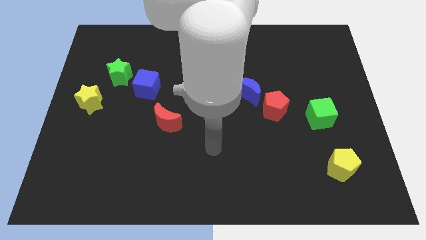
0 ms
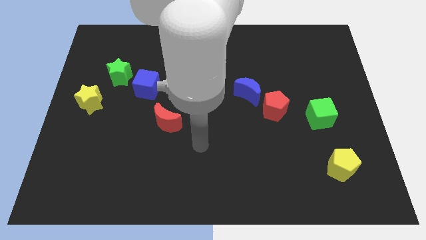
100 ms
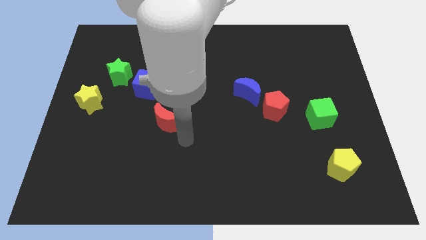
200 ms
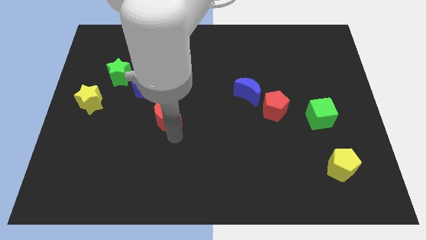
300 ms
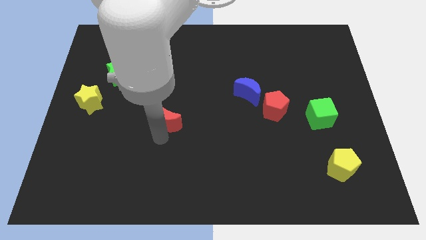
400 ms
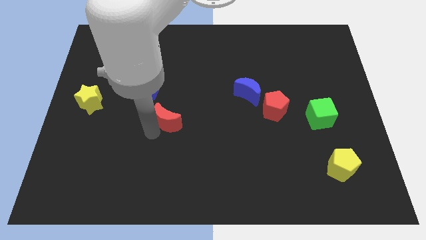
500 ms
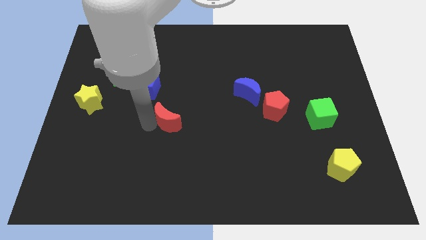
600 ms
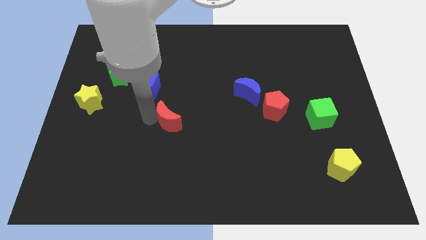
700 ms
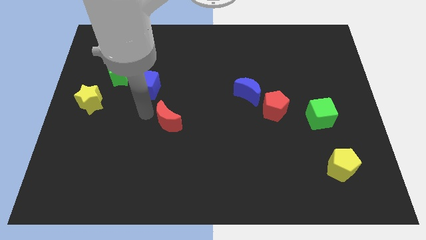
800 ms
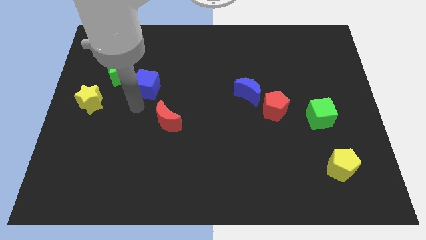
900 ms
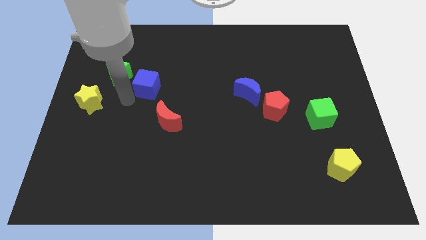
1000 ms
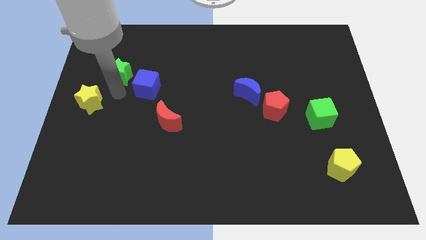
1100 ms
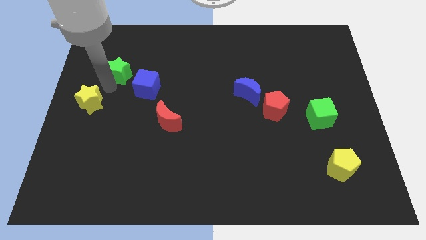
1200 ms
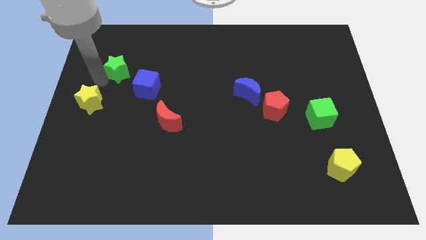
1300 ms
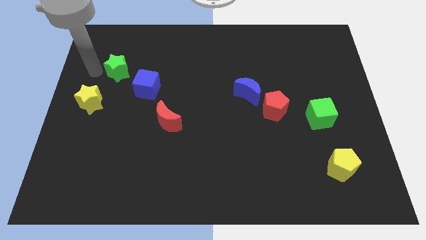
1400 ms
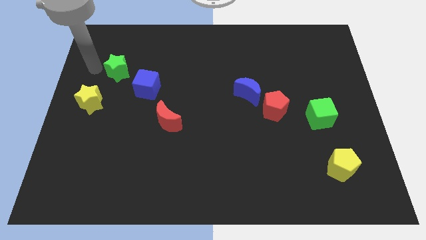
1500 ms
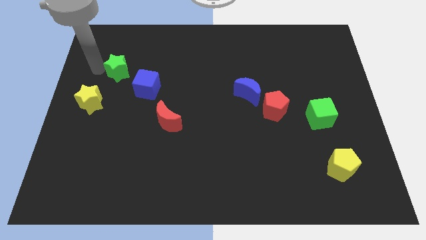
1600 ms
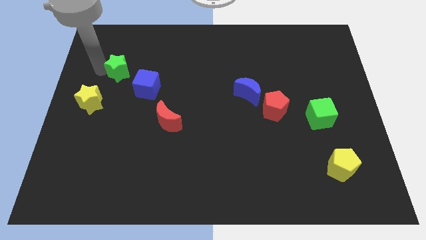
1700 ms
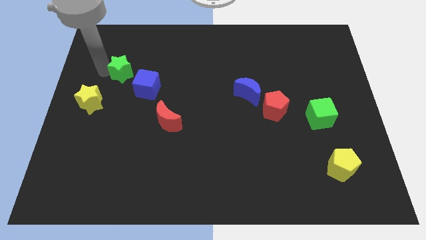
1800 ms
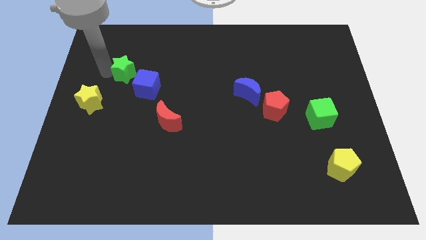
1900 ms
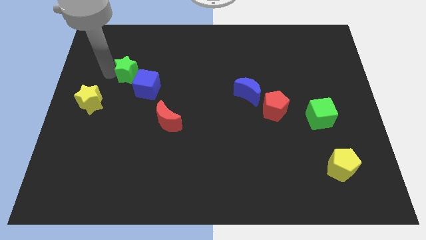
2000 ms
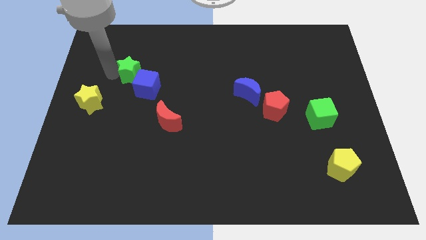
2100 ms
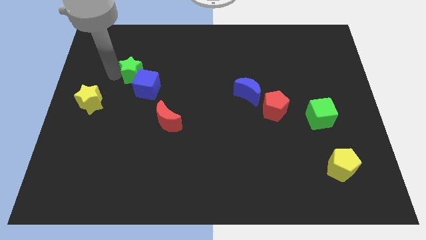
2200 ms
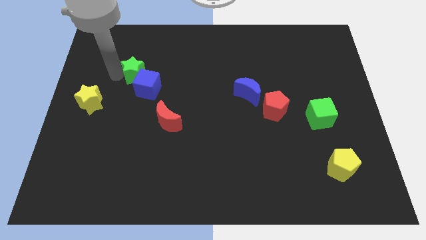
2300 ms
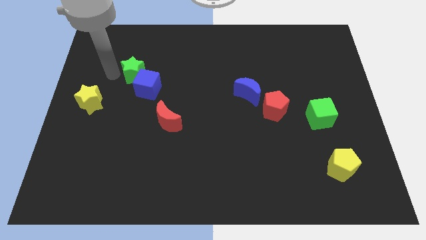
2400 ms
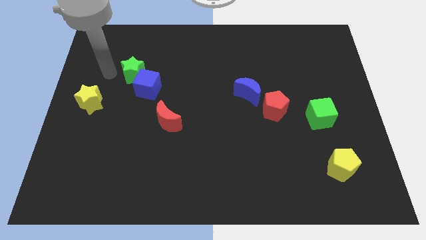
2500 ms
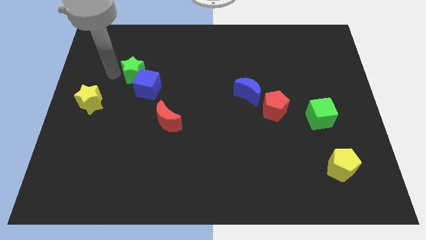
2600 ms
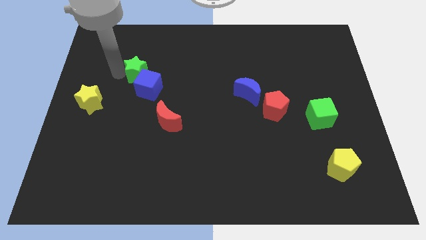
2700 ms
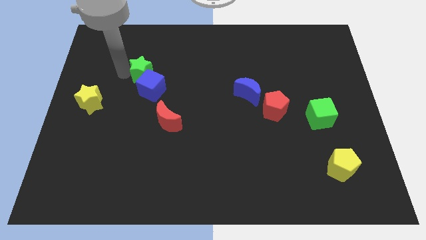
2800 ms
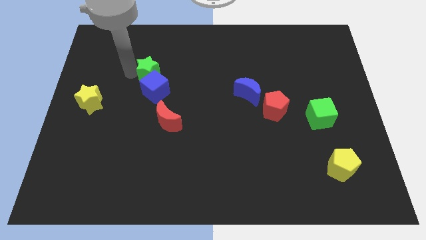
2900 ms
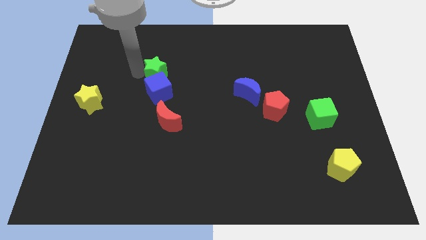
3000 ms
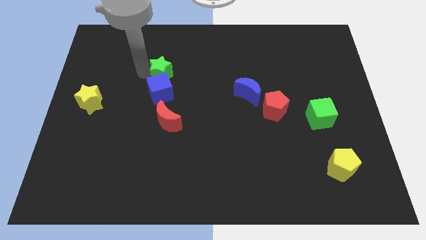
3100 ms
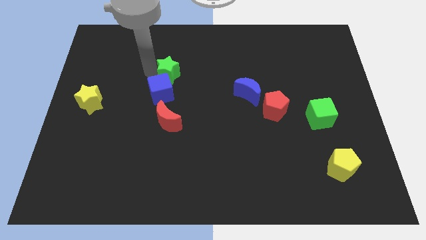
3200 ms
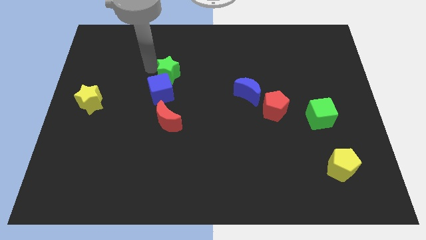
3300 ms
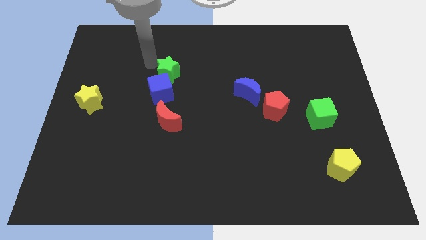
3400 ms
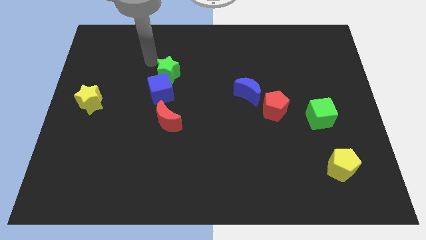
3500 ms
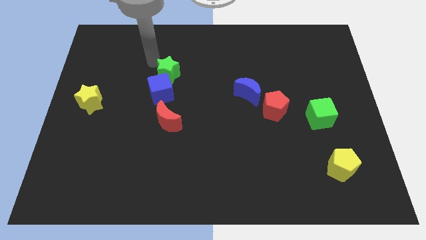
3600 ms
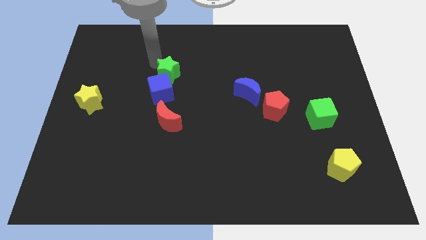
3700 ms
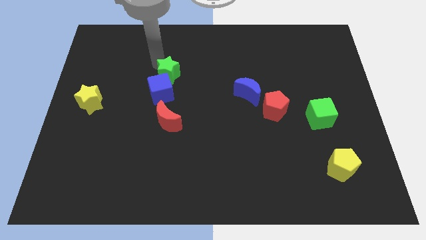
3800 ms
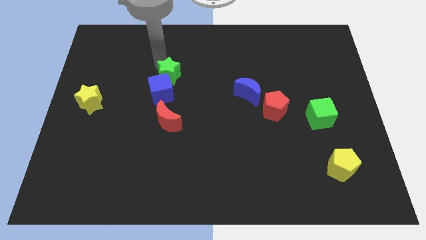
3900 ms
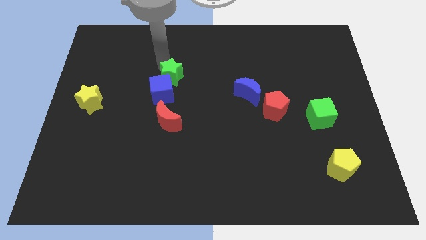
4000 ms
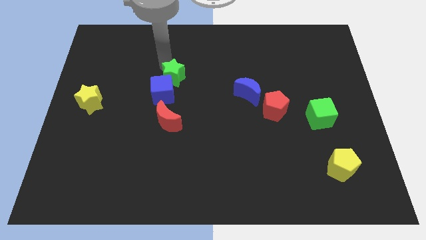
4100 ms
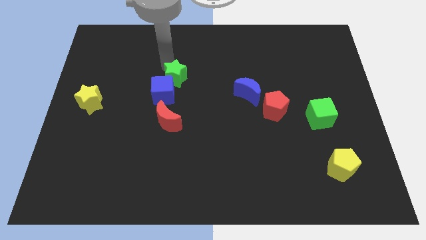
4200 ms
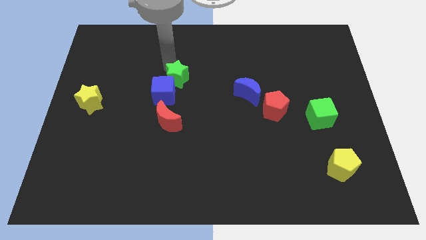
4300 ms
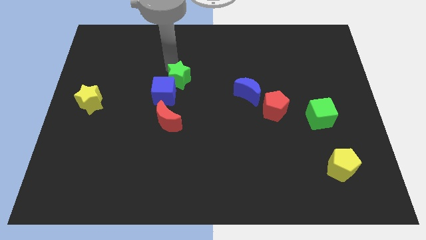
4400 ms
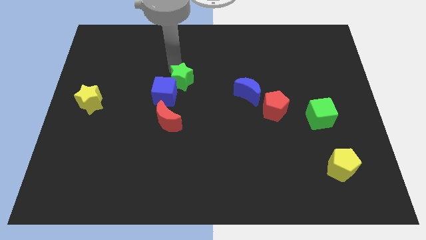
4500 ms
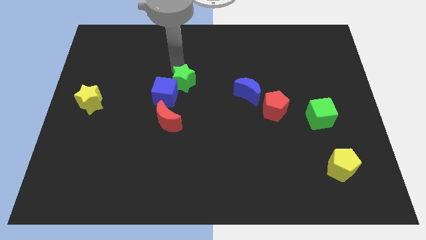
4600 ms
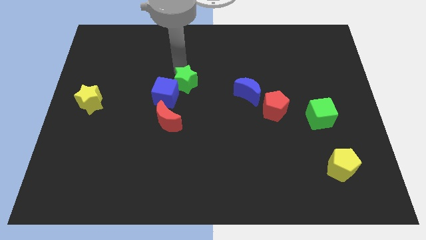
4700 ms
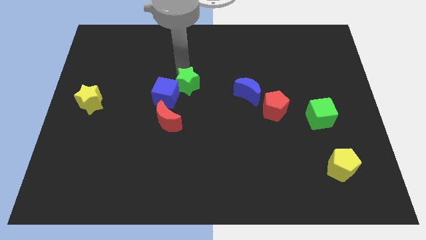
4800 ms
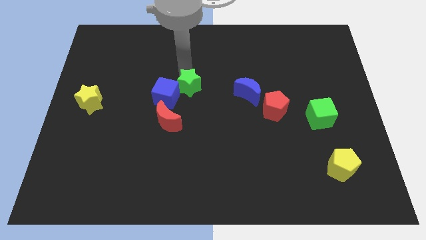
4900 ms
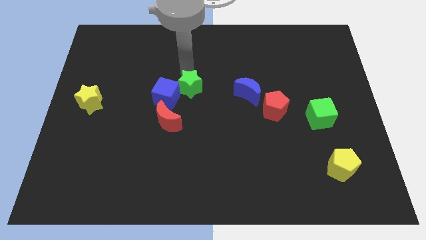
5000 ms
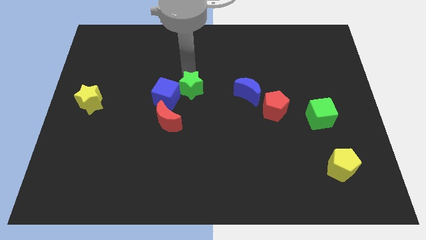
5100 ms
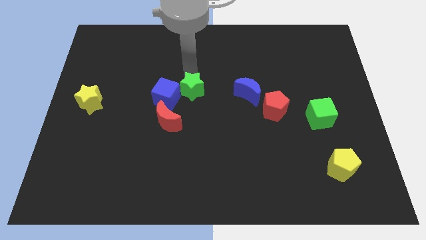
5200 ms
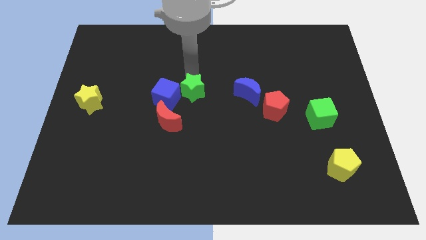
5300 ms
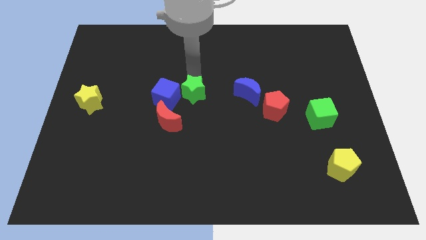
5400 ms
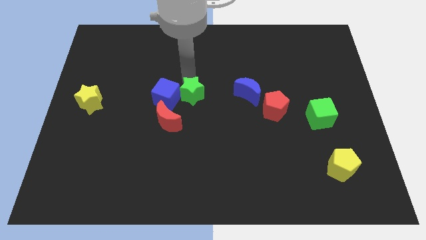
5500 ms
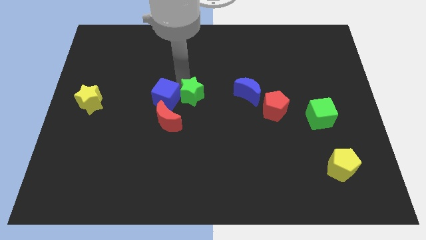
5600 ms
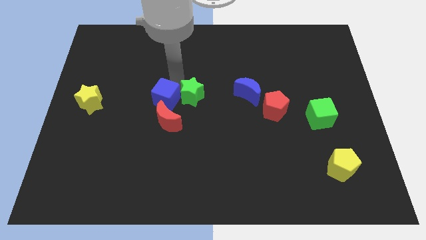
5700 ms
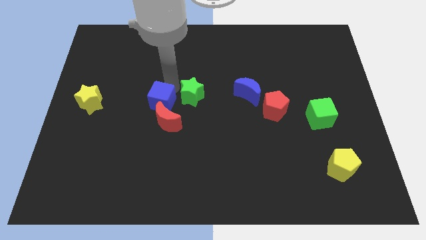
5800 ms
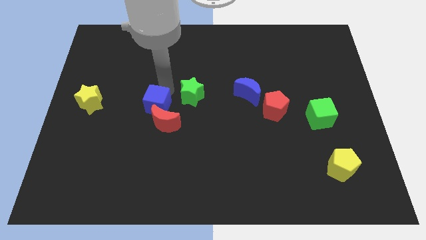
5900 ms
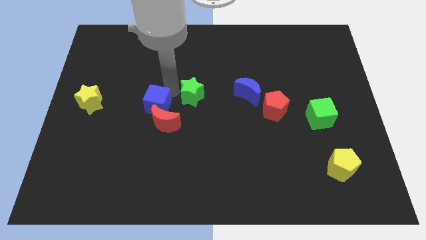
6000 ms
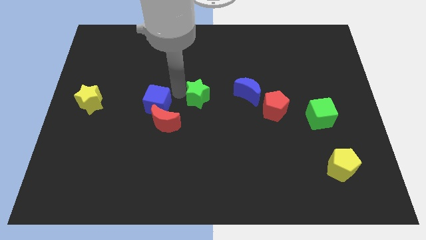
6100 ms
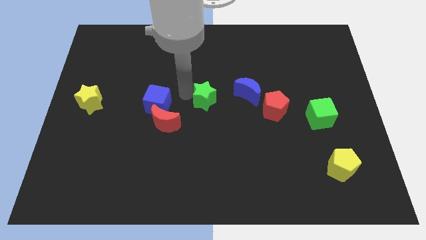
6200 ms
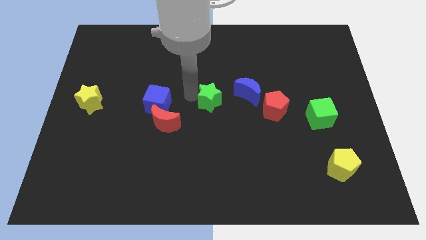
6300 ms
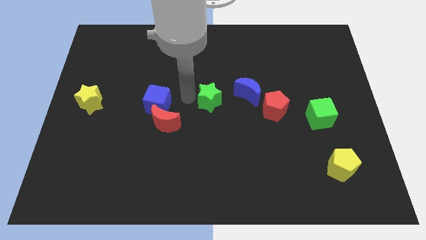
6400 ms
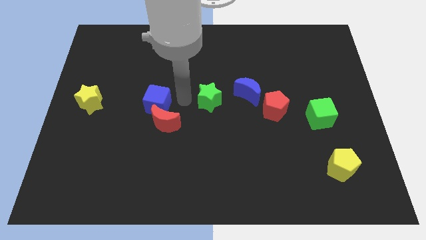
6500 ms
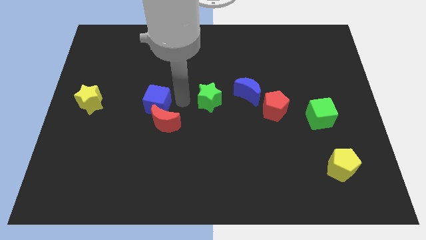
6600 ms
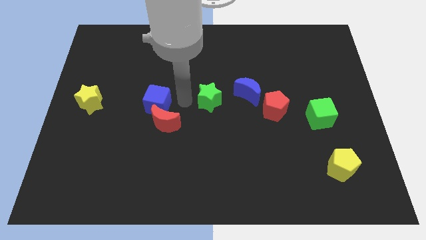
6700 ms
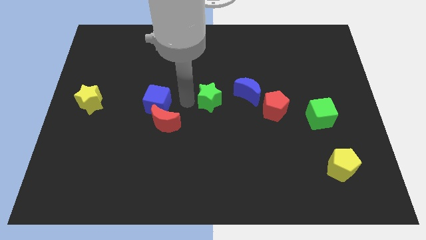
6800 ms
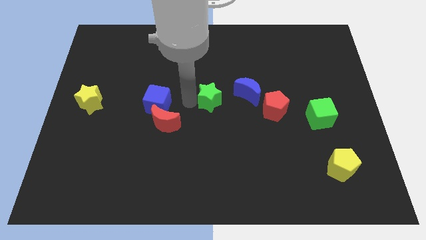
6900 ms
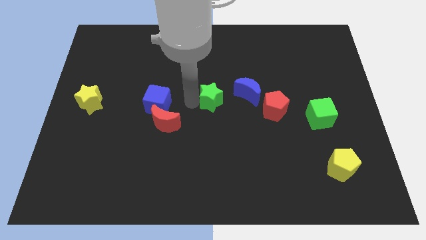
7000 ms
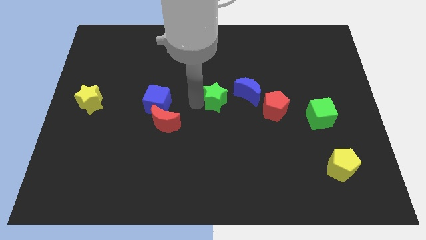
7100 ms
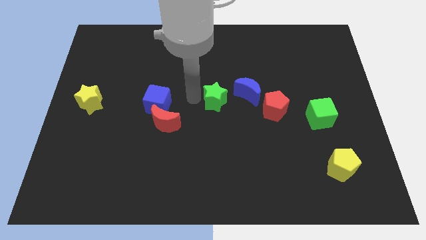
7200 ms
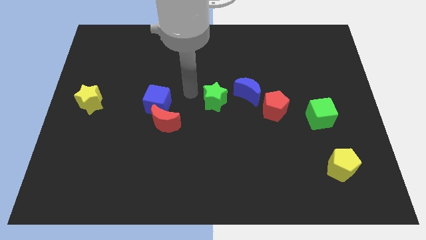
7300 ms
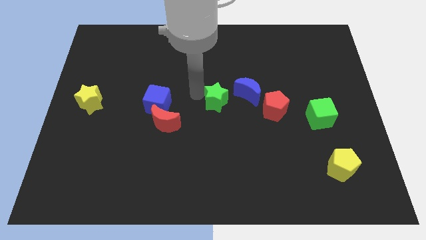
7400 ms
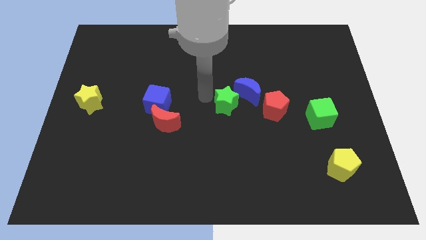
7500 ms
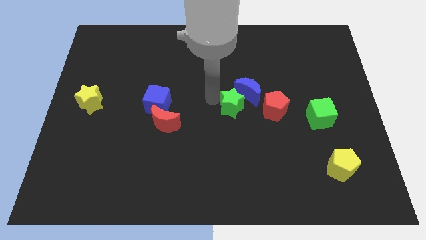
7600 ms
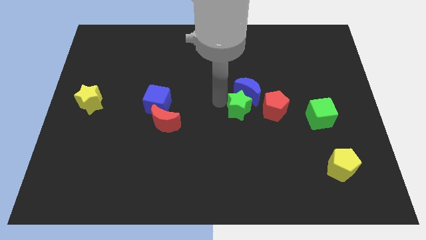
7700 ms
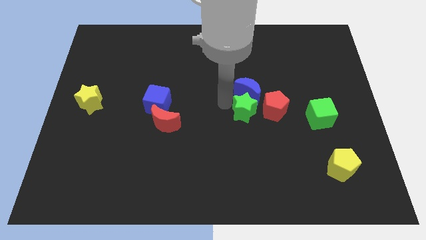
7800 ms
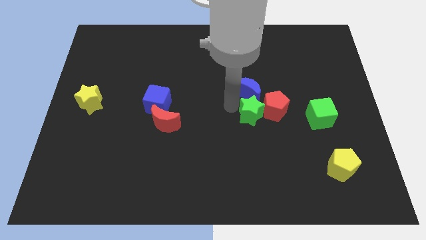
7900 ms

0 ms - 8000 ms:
move the green star to the red pentagon

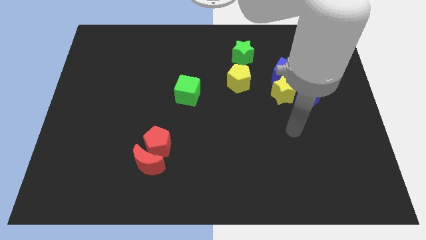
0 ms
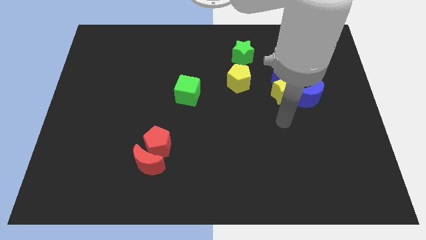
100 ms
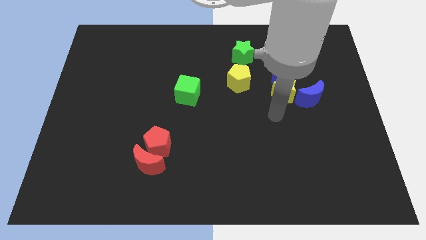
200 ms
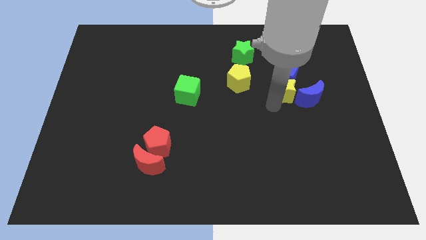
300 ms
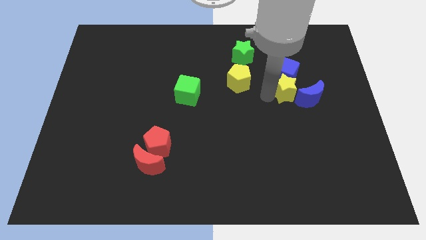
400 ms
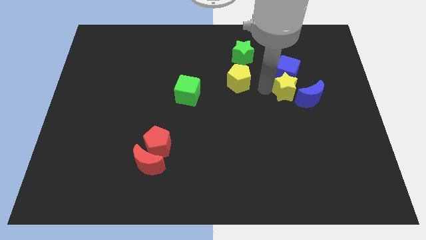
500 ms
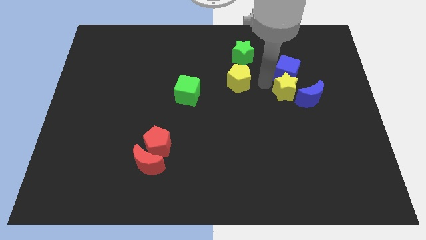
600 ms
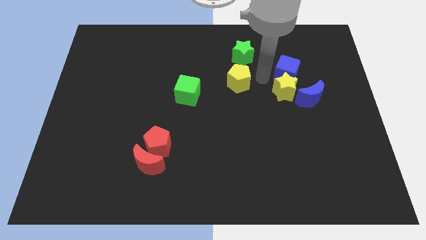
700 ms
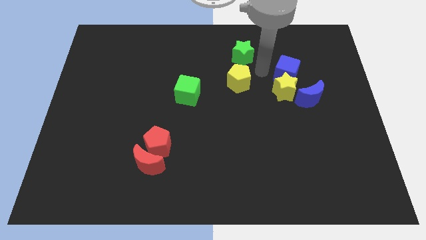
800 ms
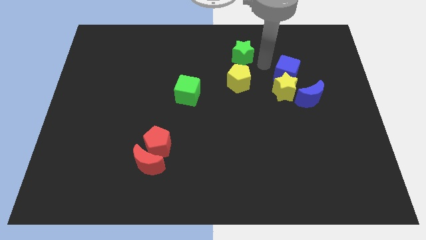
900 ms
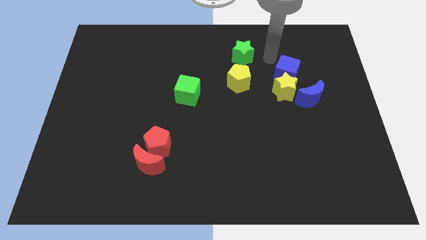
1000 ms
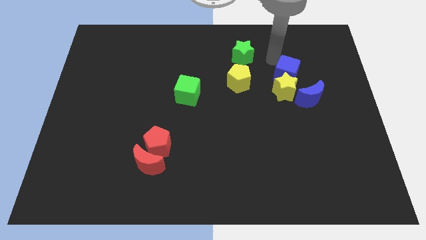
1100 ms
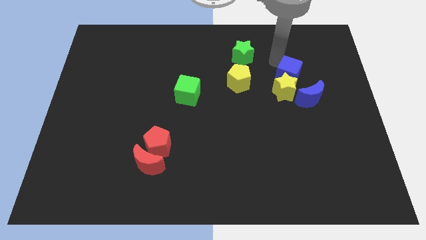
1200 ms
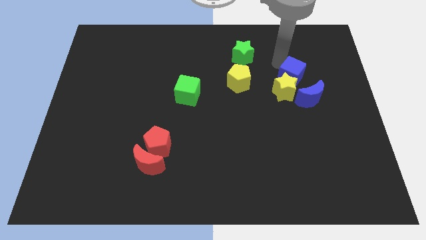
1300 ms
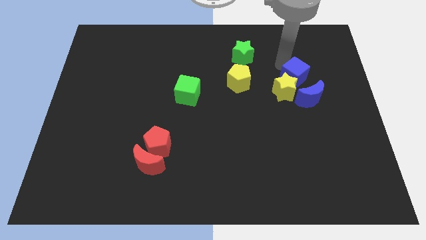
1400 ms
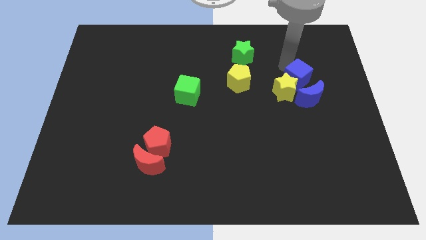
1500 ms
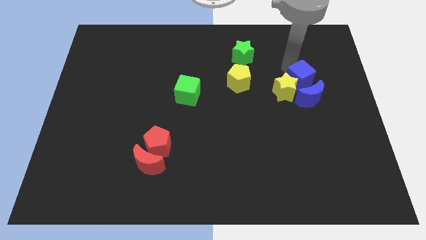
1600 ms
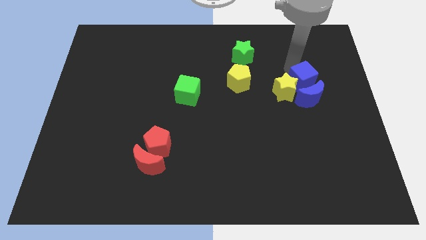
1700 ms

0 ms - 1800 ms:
put the blue cube next to the blue moon
